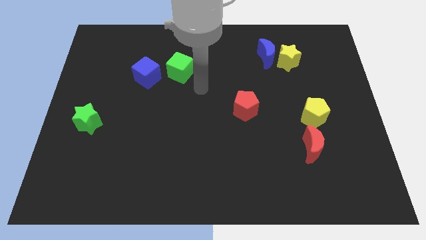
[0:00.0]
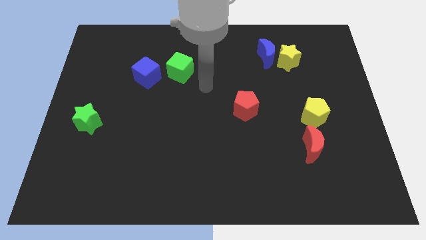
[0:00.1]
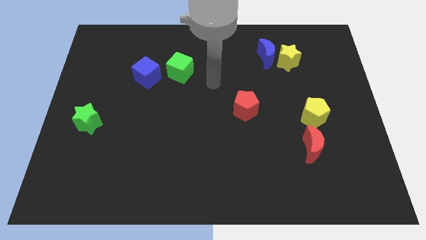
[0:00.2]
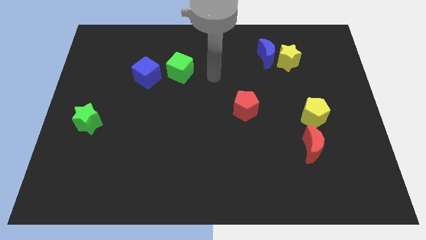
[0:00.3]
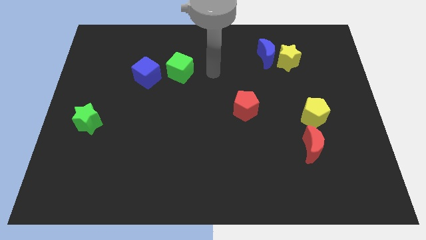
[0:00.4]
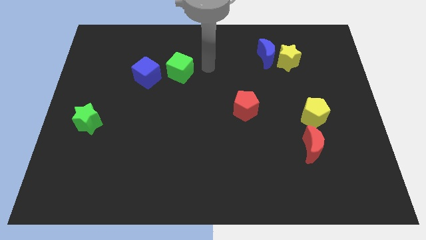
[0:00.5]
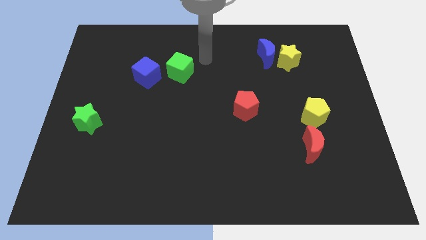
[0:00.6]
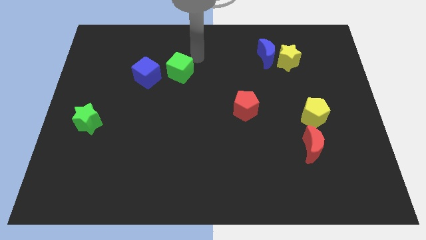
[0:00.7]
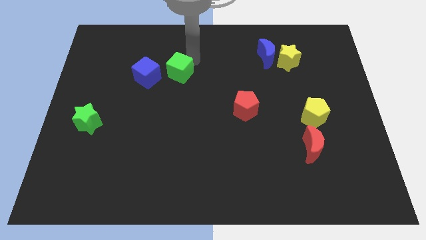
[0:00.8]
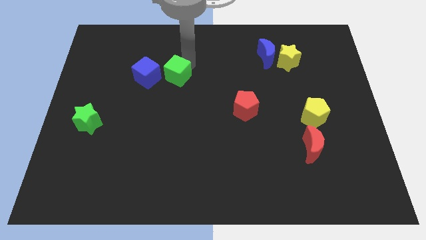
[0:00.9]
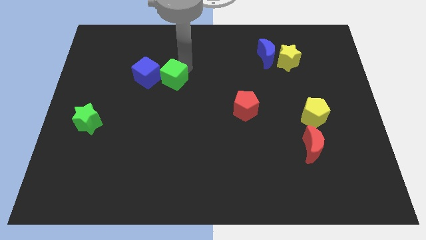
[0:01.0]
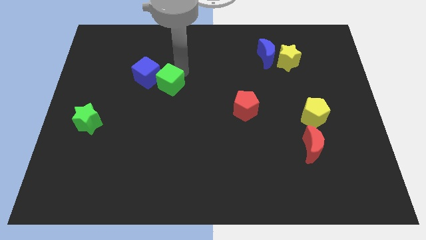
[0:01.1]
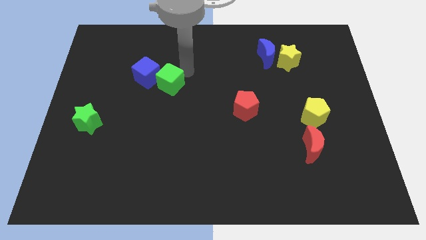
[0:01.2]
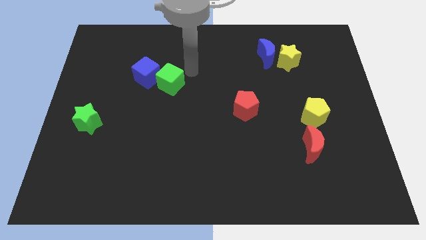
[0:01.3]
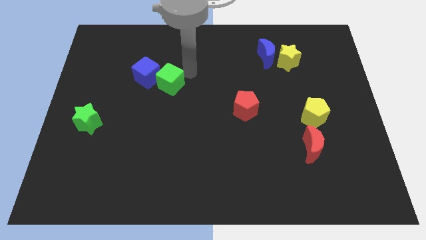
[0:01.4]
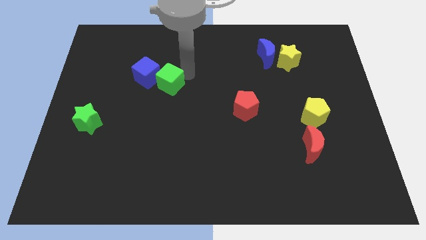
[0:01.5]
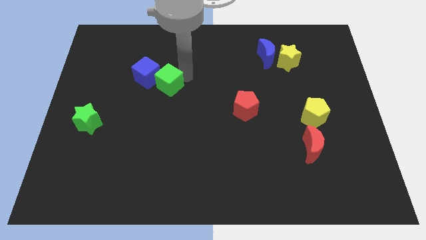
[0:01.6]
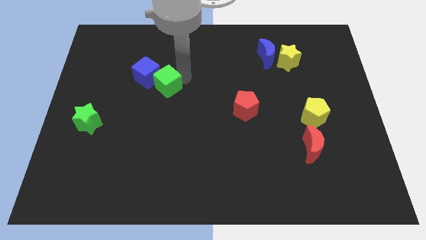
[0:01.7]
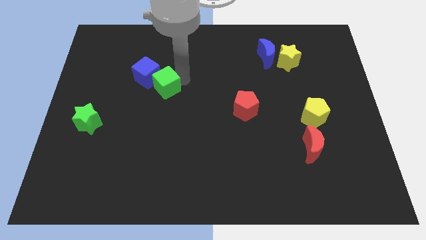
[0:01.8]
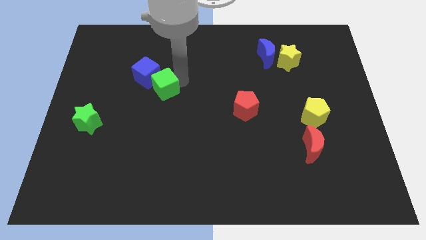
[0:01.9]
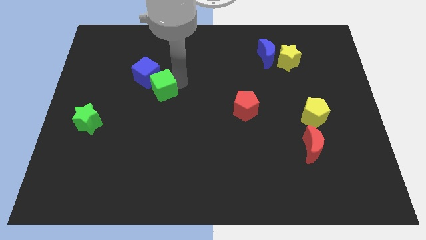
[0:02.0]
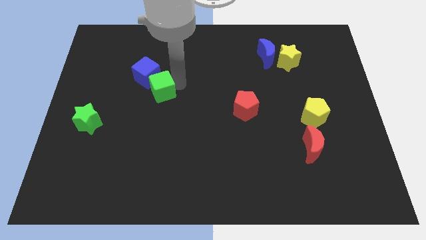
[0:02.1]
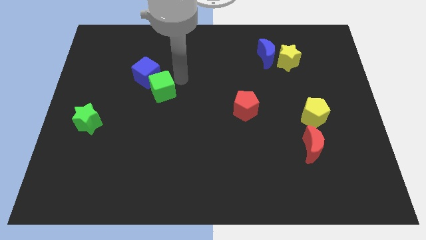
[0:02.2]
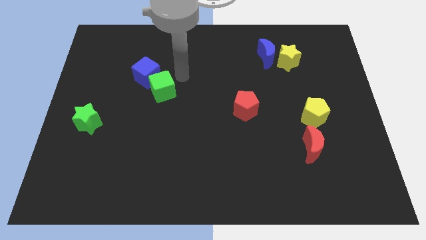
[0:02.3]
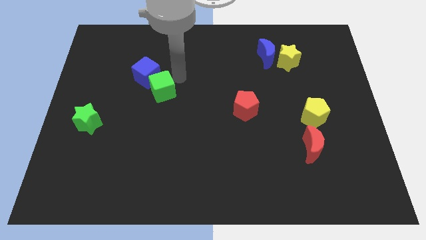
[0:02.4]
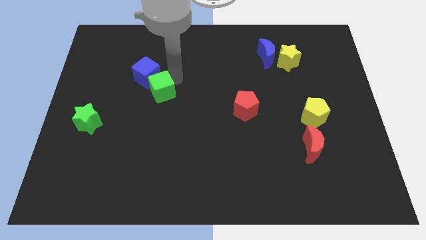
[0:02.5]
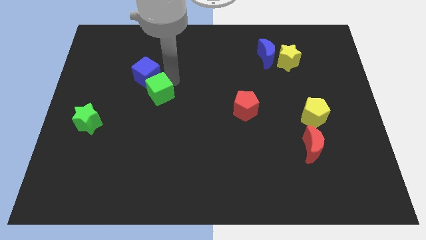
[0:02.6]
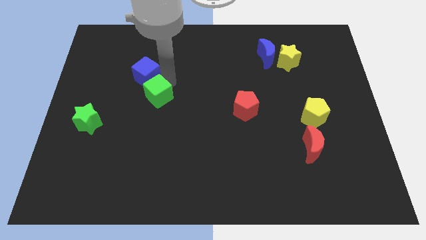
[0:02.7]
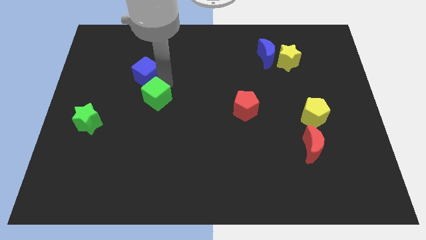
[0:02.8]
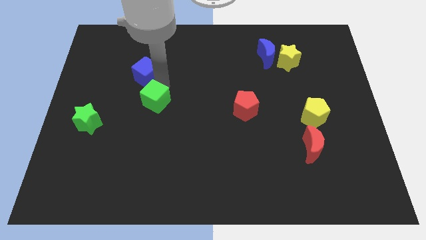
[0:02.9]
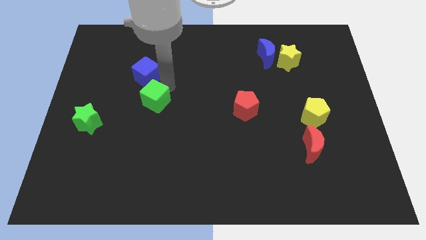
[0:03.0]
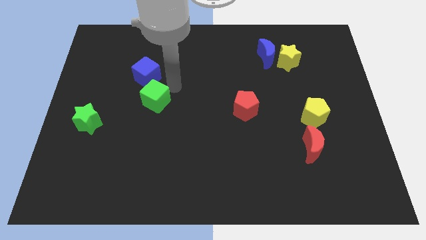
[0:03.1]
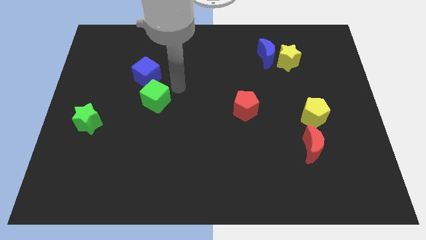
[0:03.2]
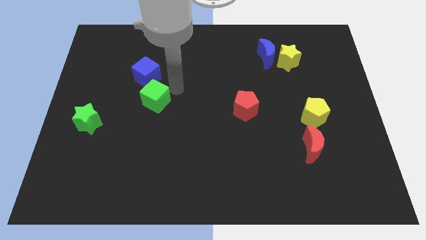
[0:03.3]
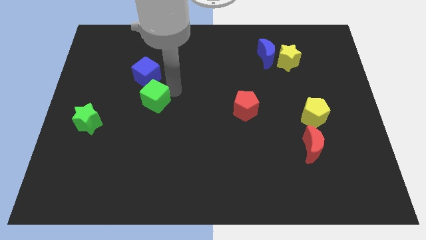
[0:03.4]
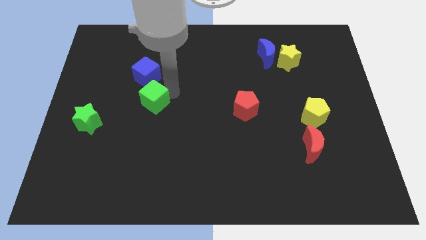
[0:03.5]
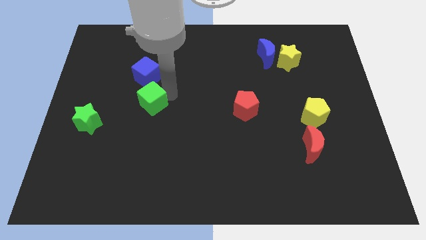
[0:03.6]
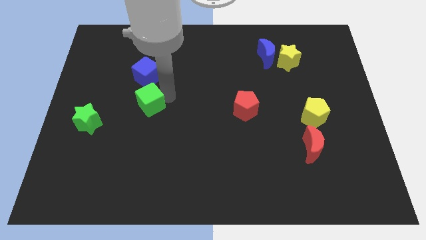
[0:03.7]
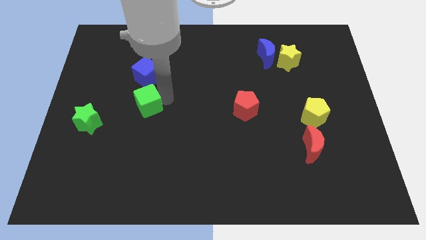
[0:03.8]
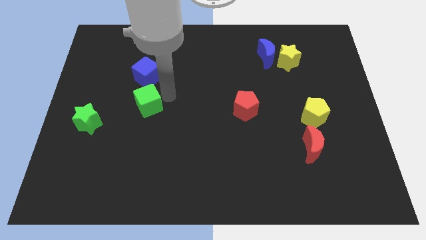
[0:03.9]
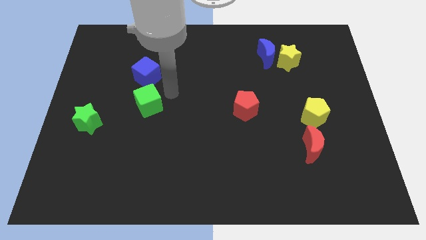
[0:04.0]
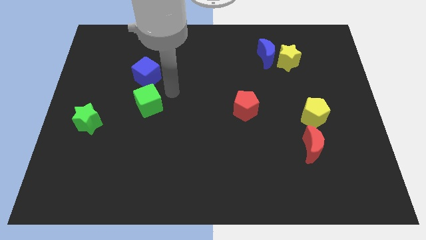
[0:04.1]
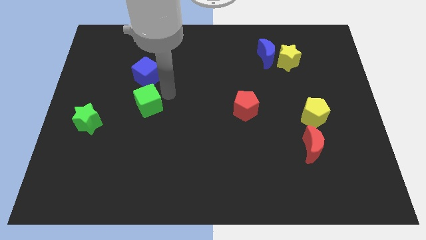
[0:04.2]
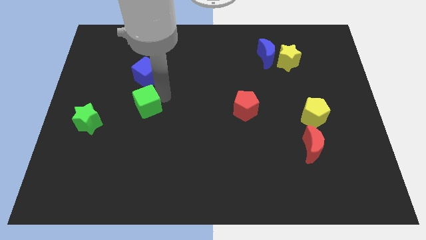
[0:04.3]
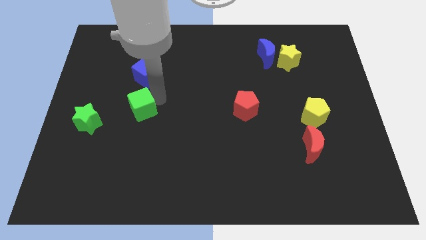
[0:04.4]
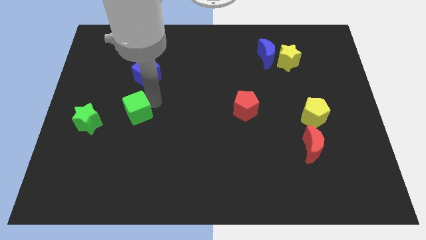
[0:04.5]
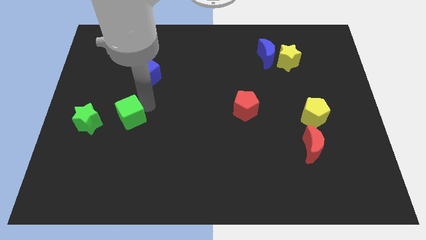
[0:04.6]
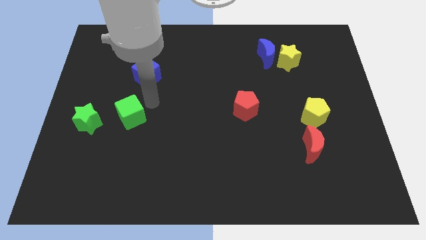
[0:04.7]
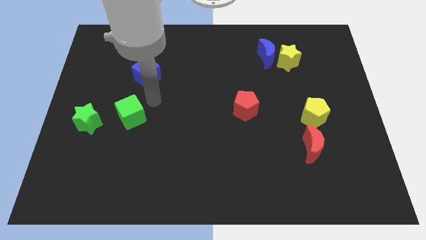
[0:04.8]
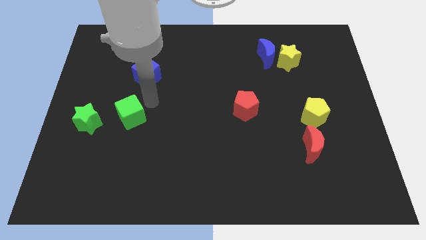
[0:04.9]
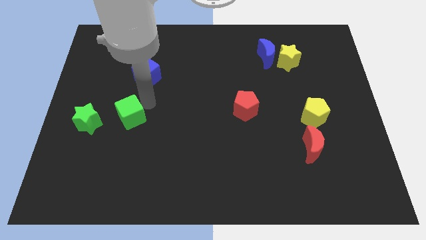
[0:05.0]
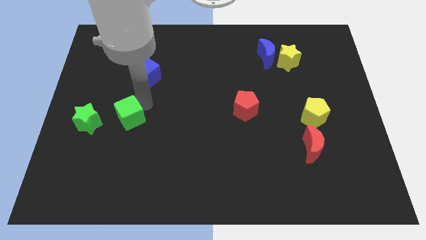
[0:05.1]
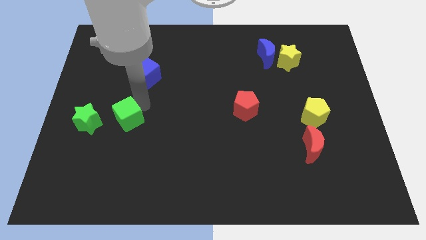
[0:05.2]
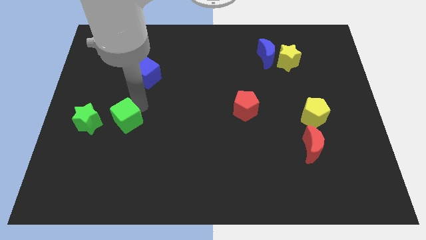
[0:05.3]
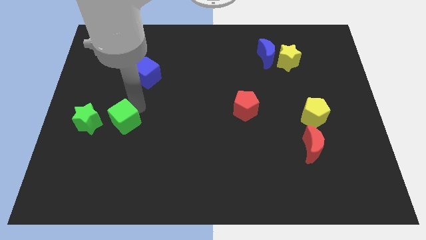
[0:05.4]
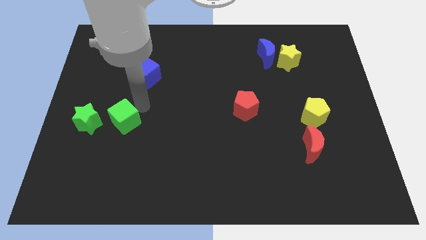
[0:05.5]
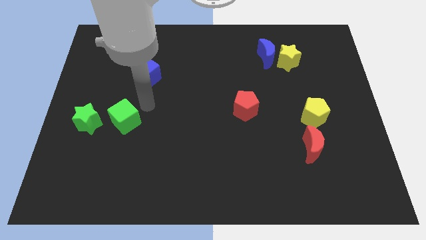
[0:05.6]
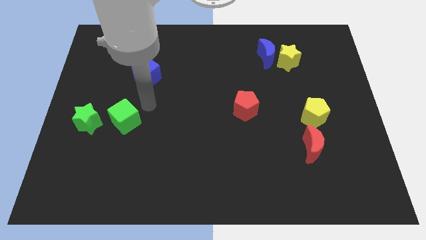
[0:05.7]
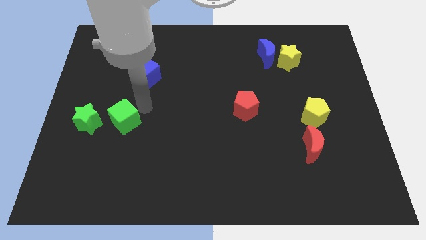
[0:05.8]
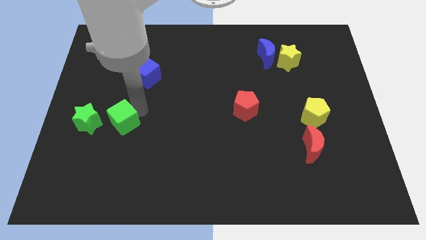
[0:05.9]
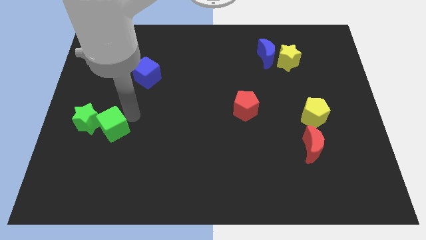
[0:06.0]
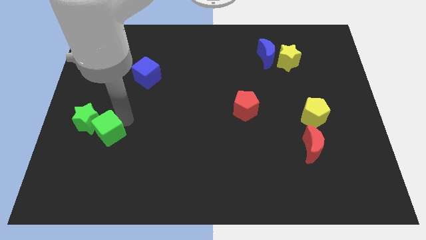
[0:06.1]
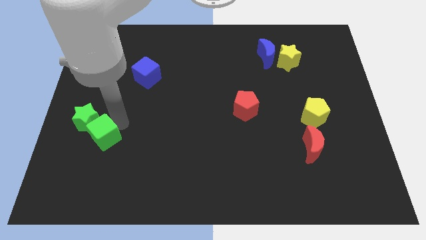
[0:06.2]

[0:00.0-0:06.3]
move the green cube below the green star
